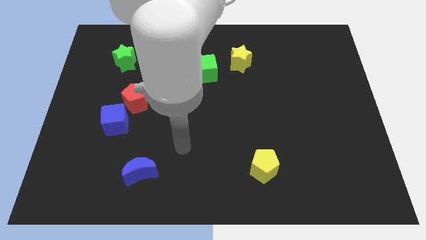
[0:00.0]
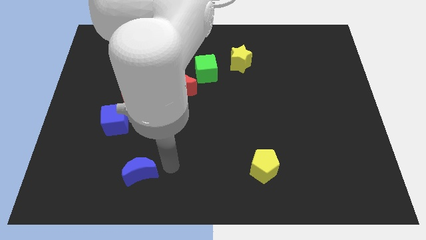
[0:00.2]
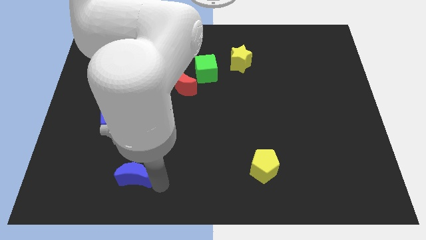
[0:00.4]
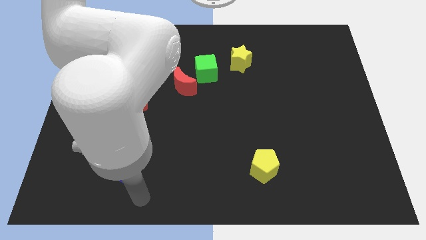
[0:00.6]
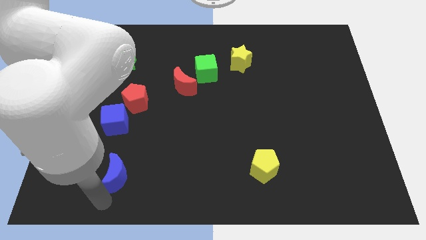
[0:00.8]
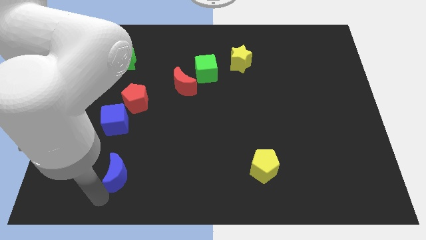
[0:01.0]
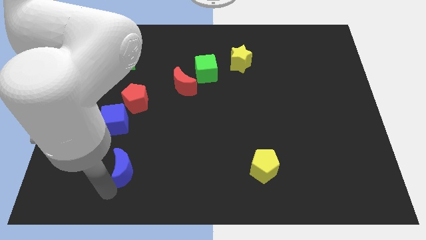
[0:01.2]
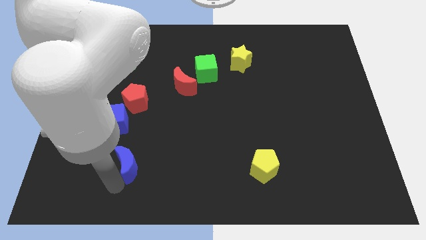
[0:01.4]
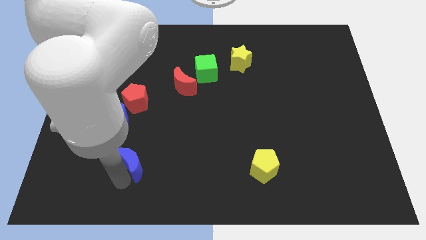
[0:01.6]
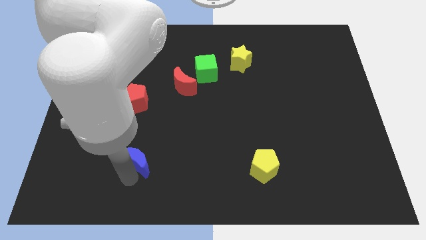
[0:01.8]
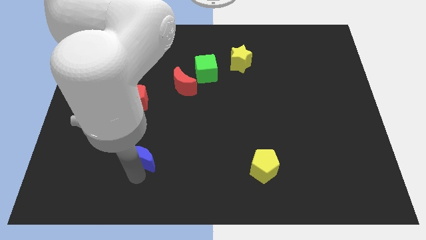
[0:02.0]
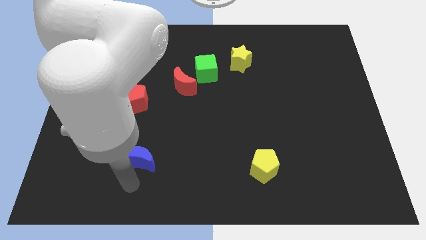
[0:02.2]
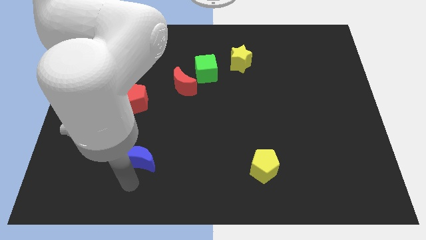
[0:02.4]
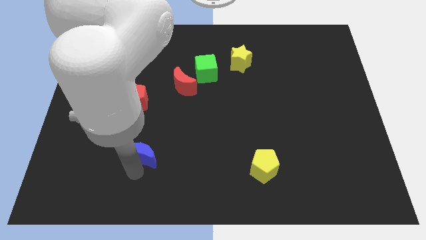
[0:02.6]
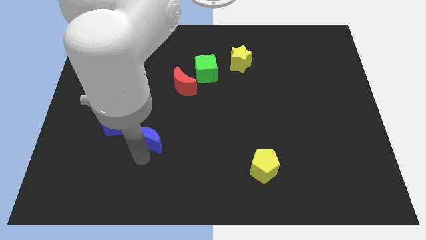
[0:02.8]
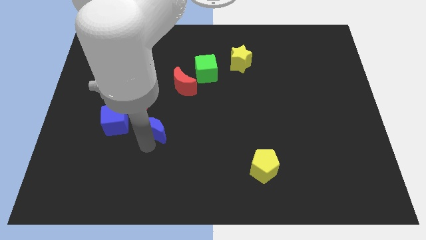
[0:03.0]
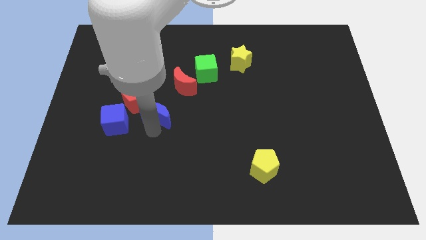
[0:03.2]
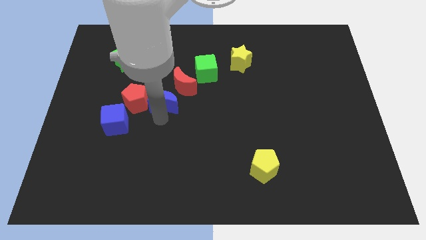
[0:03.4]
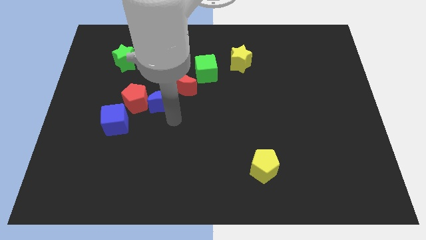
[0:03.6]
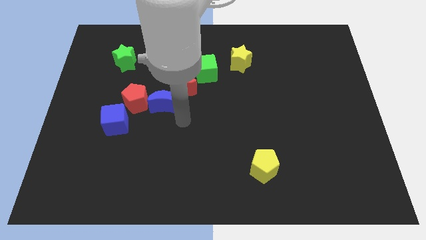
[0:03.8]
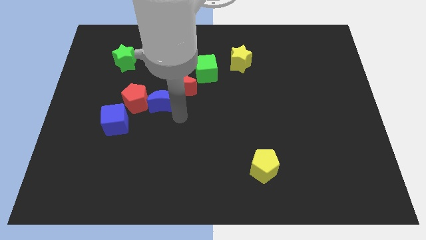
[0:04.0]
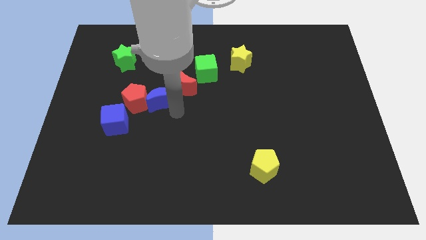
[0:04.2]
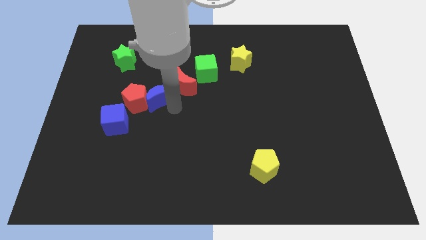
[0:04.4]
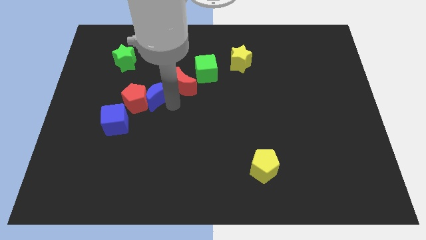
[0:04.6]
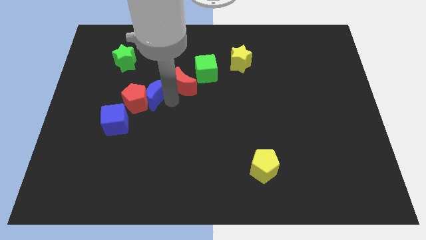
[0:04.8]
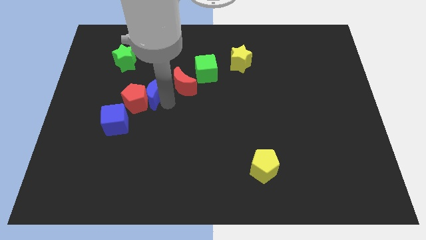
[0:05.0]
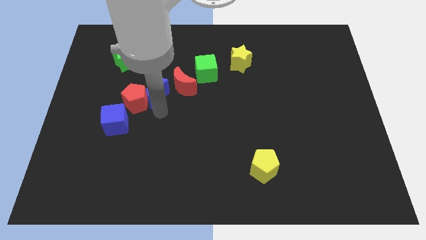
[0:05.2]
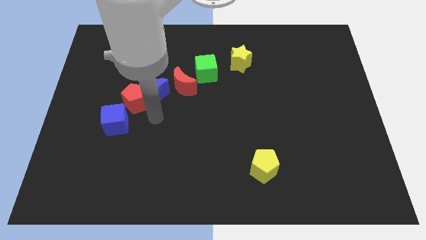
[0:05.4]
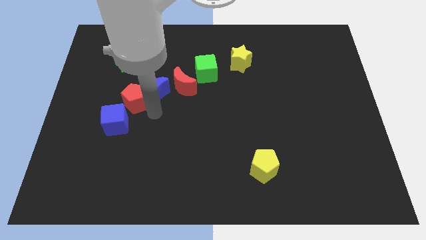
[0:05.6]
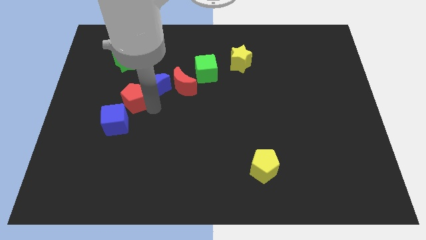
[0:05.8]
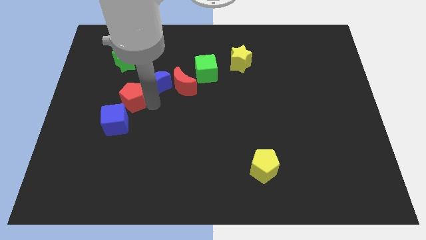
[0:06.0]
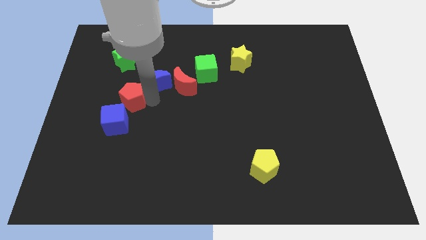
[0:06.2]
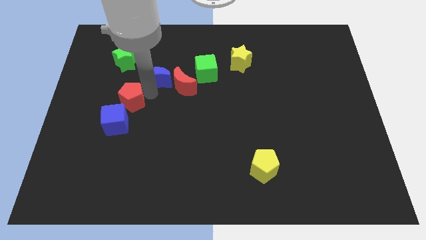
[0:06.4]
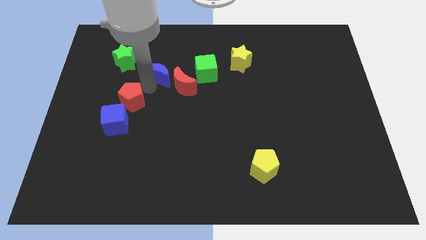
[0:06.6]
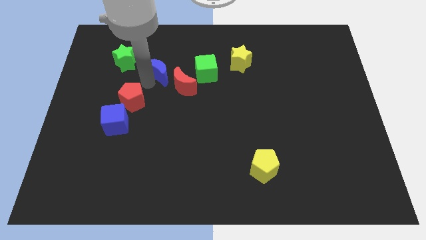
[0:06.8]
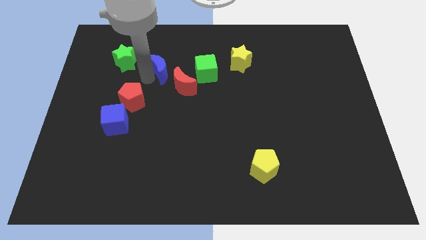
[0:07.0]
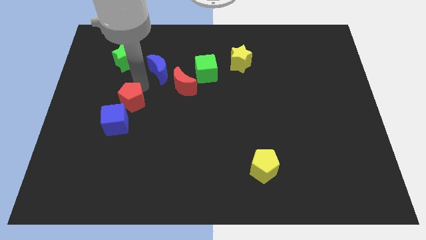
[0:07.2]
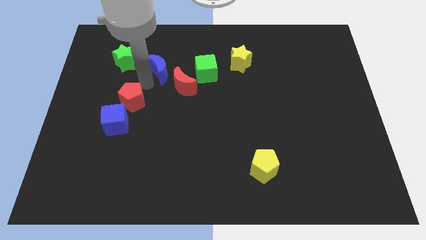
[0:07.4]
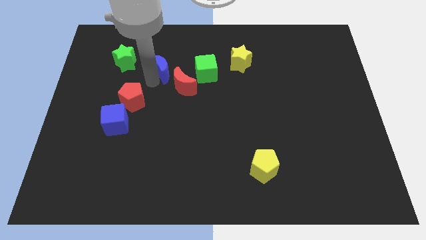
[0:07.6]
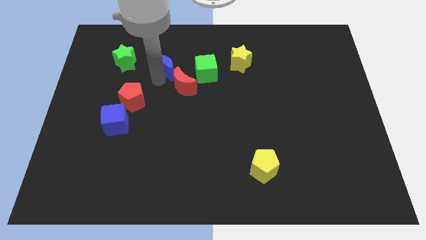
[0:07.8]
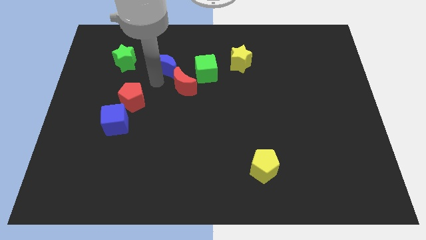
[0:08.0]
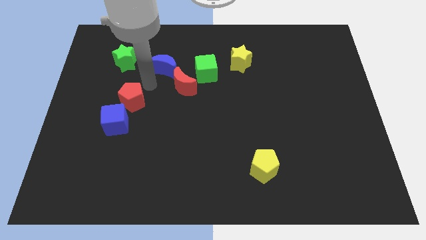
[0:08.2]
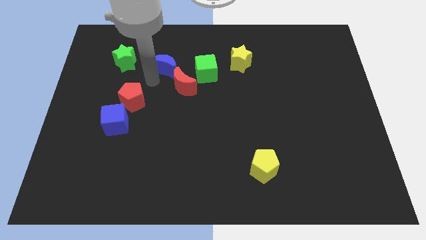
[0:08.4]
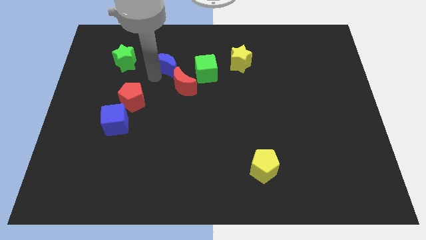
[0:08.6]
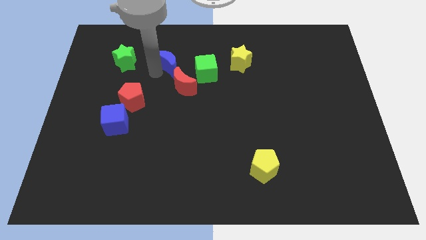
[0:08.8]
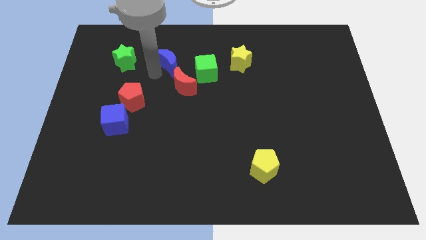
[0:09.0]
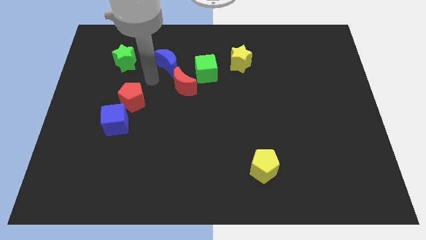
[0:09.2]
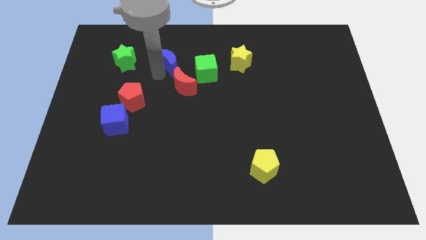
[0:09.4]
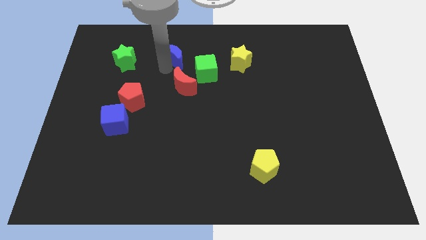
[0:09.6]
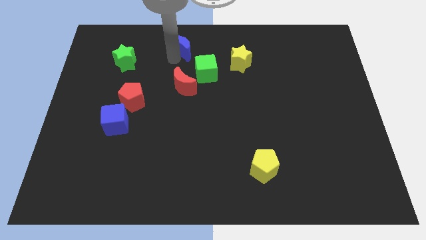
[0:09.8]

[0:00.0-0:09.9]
move the blue moon to the top side

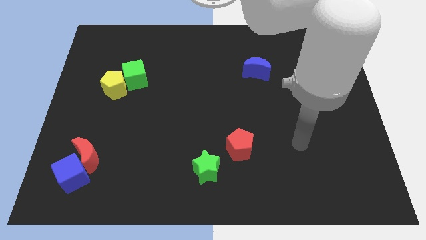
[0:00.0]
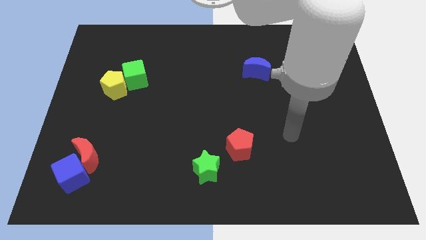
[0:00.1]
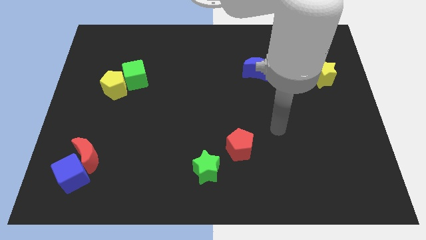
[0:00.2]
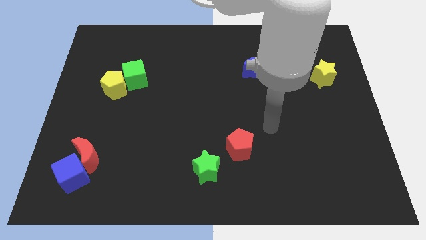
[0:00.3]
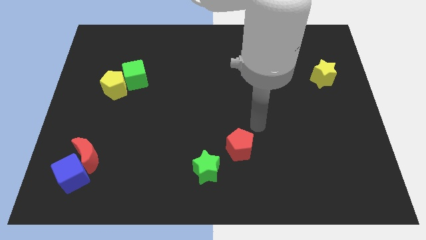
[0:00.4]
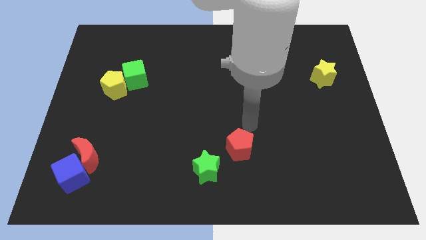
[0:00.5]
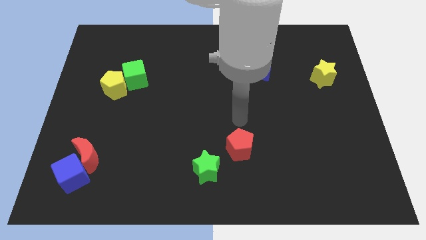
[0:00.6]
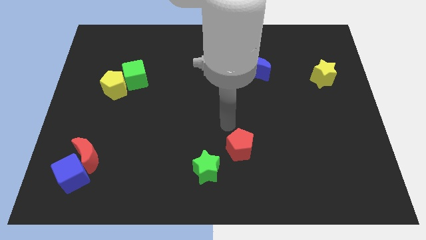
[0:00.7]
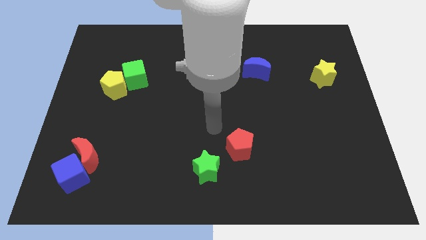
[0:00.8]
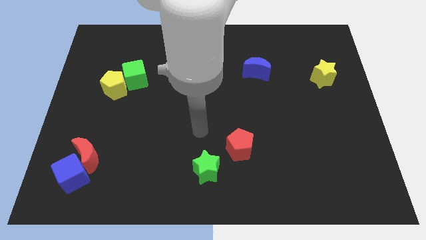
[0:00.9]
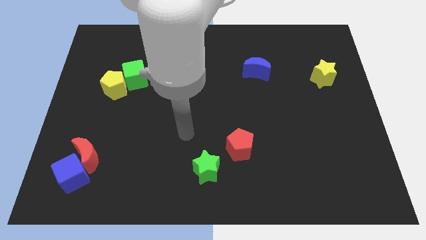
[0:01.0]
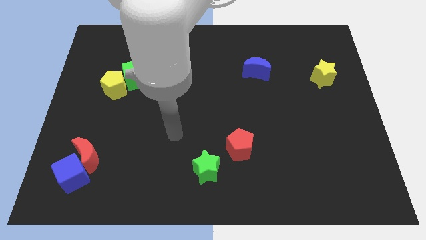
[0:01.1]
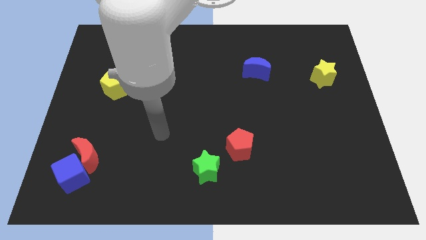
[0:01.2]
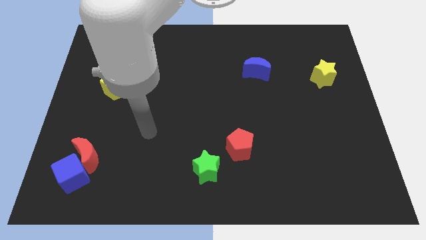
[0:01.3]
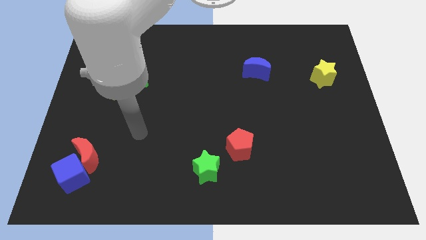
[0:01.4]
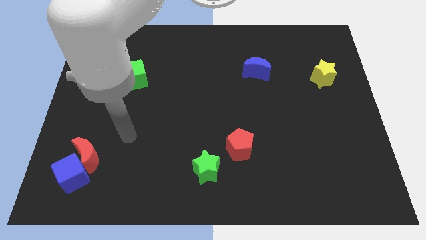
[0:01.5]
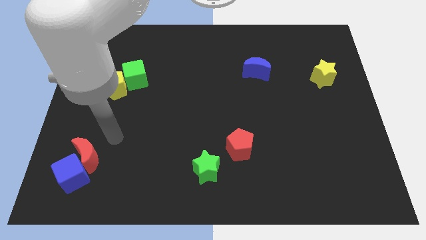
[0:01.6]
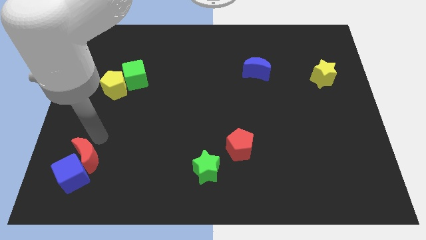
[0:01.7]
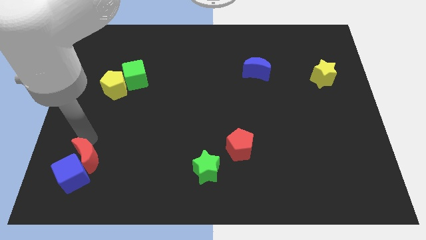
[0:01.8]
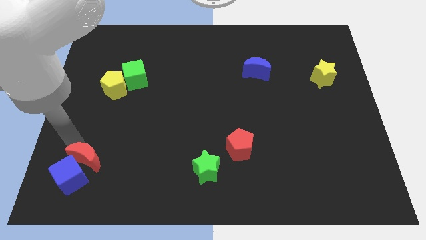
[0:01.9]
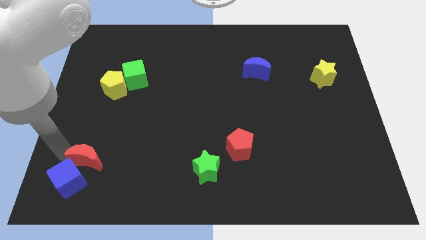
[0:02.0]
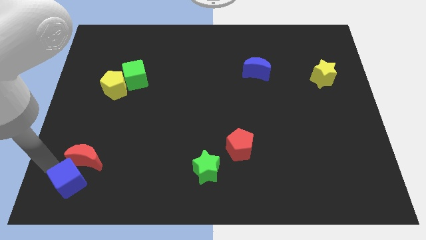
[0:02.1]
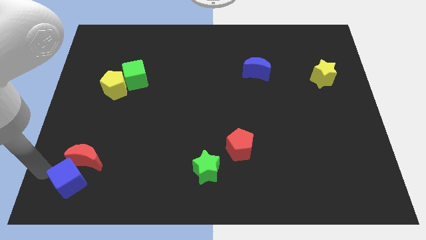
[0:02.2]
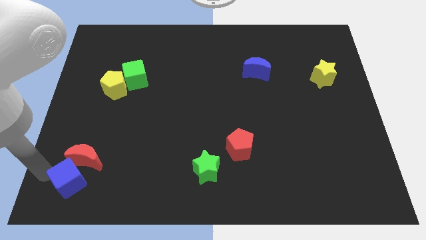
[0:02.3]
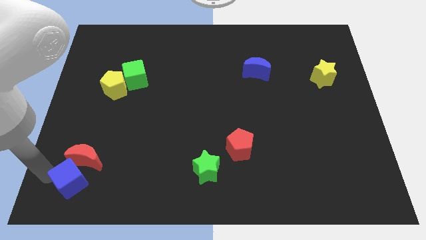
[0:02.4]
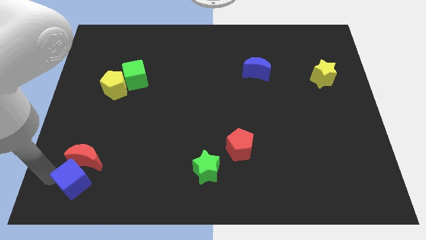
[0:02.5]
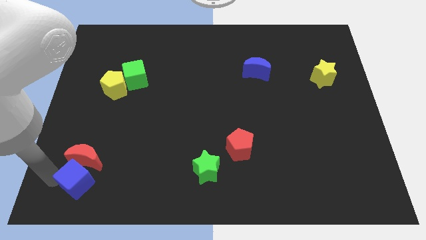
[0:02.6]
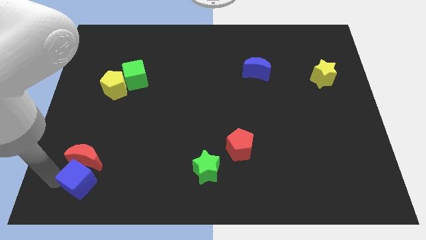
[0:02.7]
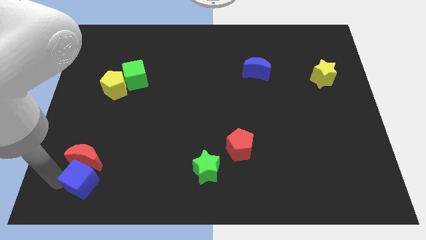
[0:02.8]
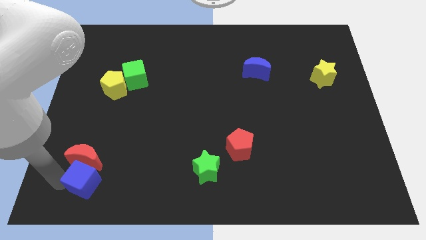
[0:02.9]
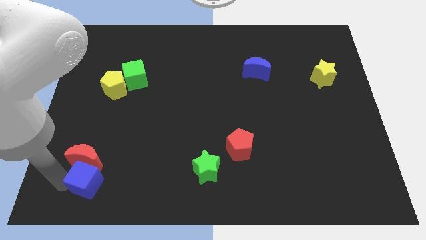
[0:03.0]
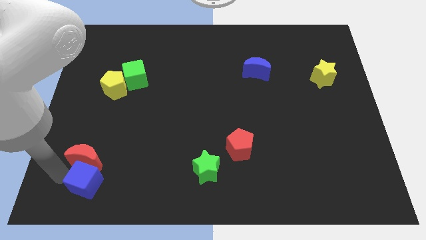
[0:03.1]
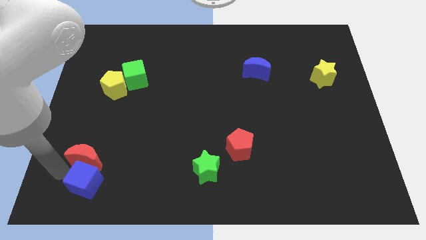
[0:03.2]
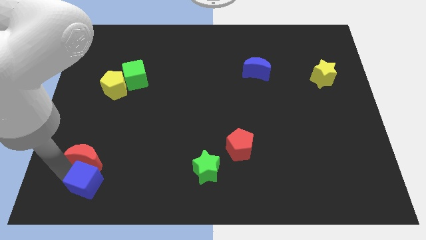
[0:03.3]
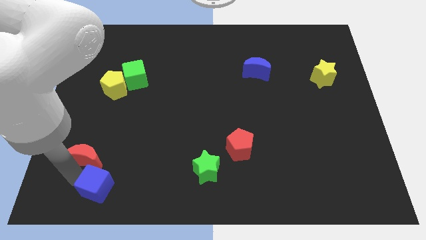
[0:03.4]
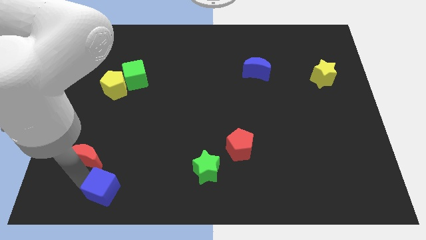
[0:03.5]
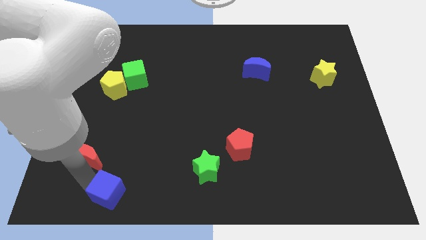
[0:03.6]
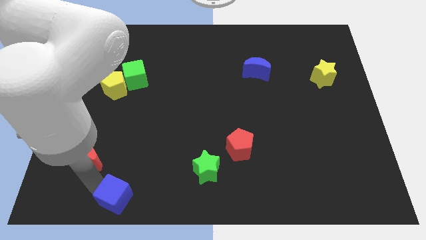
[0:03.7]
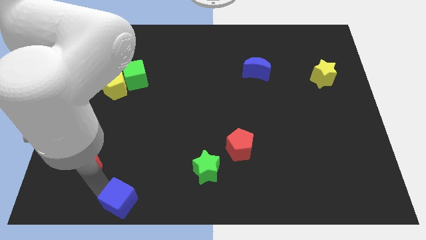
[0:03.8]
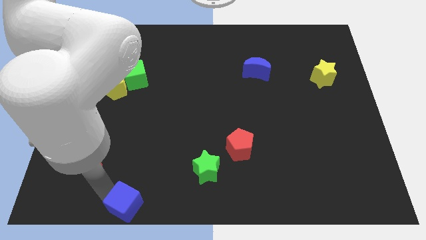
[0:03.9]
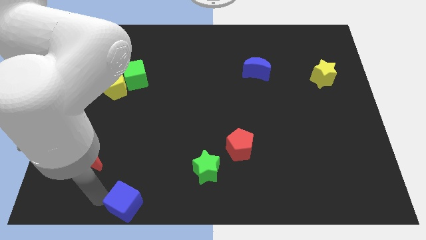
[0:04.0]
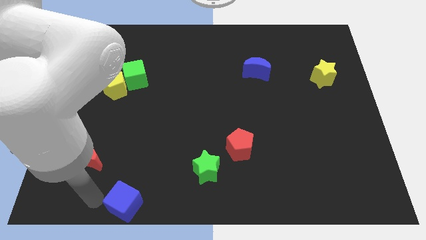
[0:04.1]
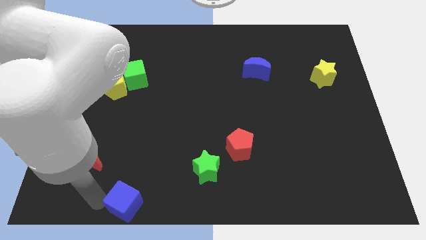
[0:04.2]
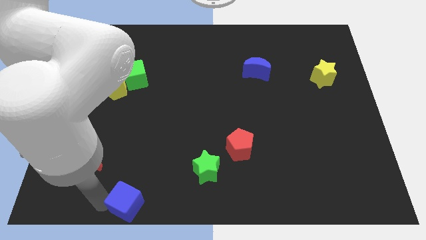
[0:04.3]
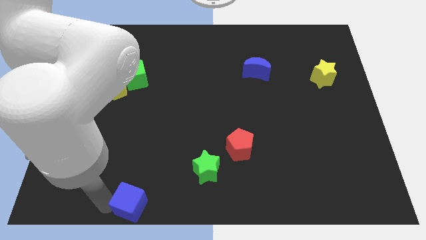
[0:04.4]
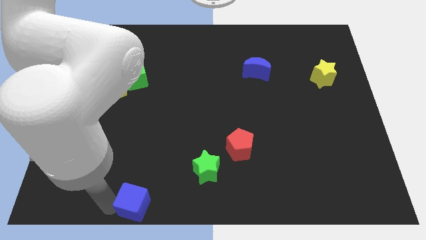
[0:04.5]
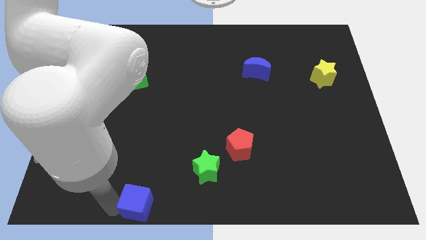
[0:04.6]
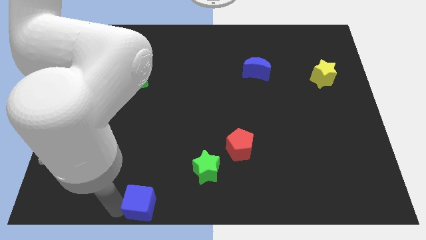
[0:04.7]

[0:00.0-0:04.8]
slide the blue cube to the bottom side
